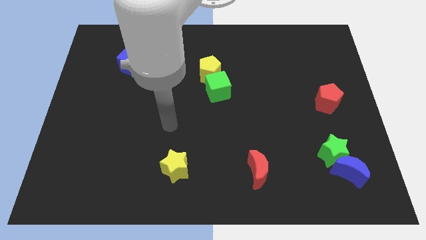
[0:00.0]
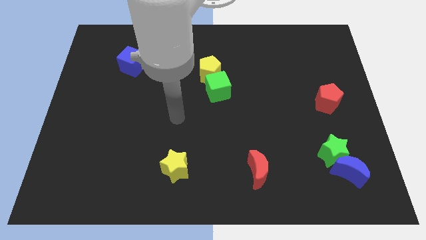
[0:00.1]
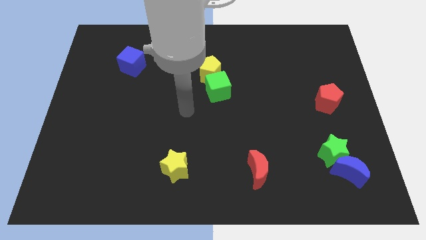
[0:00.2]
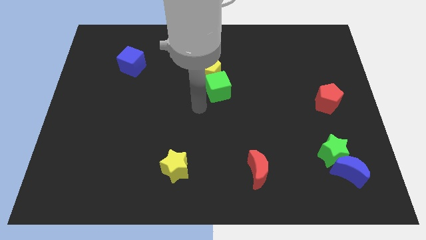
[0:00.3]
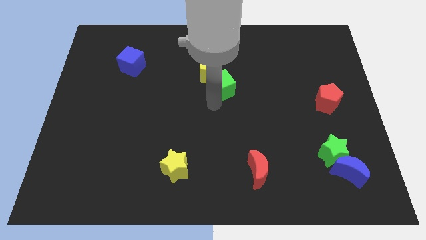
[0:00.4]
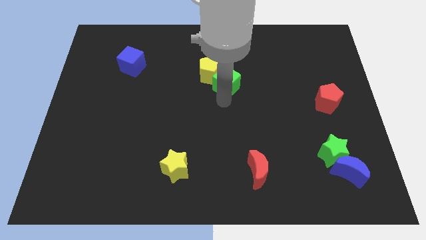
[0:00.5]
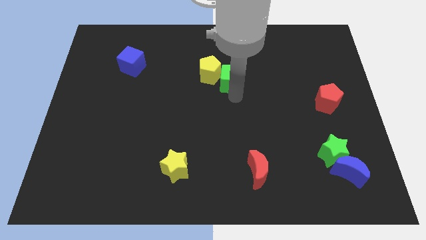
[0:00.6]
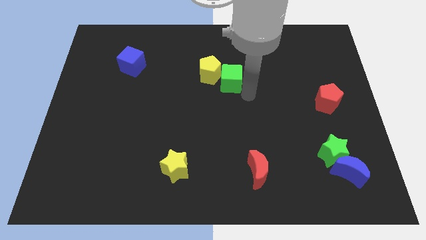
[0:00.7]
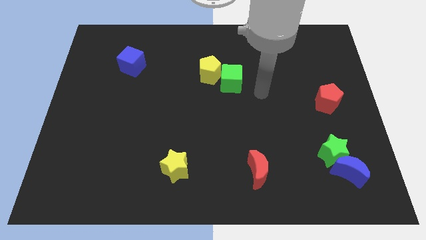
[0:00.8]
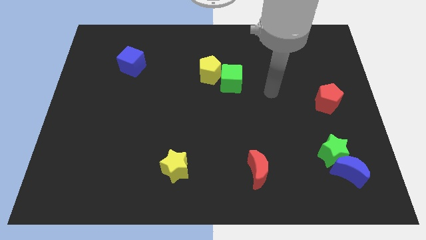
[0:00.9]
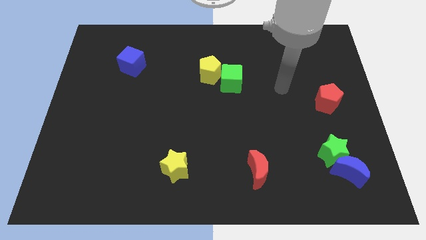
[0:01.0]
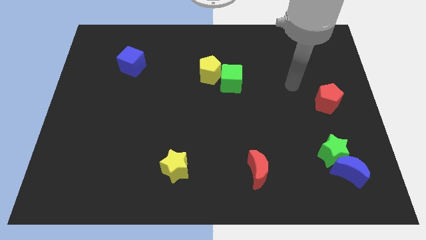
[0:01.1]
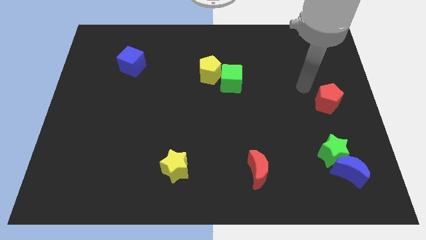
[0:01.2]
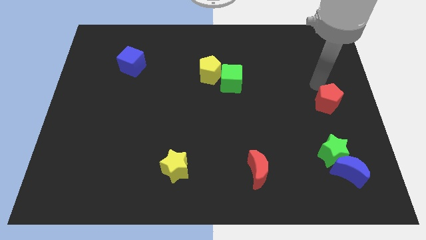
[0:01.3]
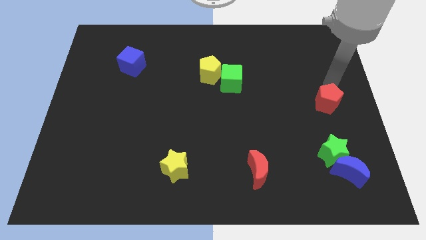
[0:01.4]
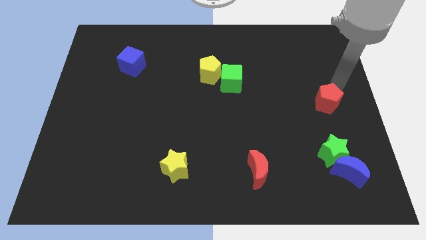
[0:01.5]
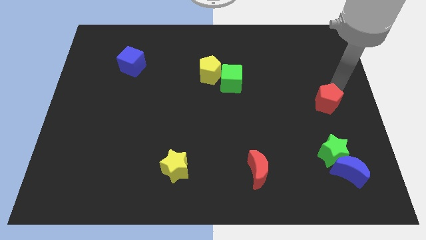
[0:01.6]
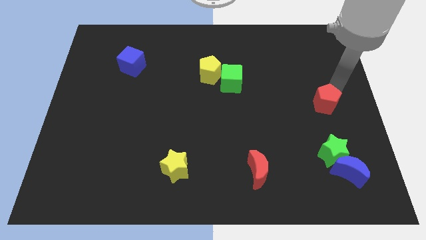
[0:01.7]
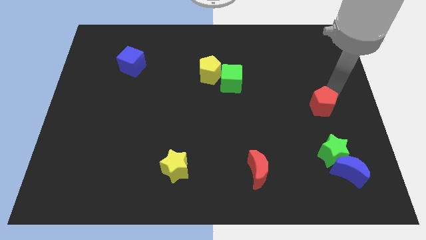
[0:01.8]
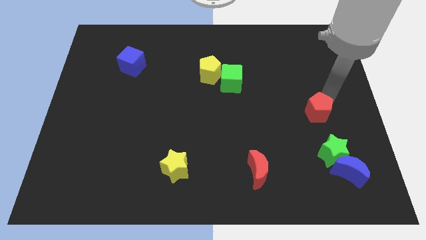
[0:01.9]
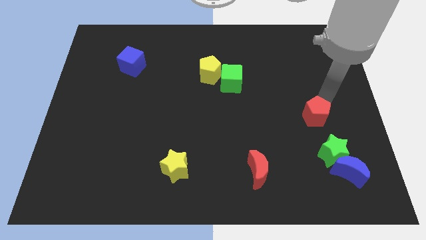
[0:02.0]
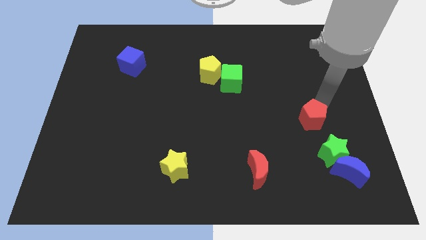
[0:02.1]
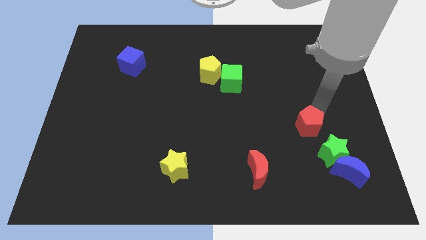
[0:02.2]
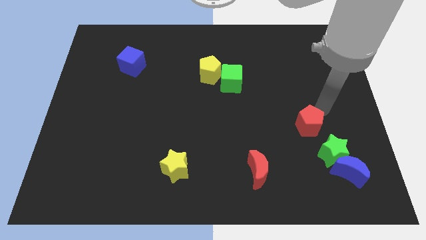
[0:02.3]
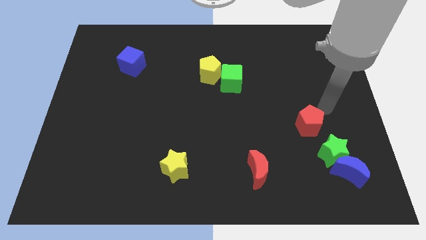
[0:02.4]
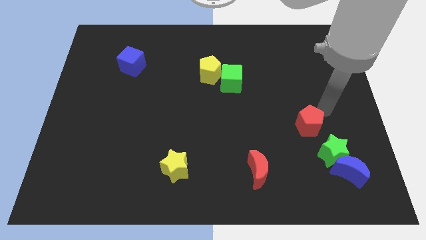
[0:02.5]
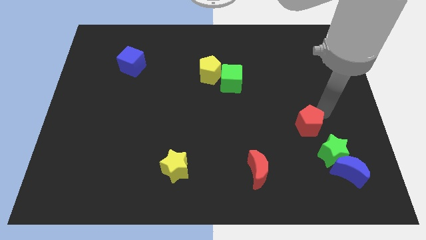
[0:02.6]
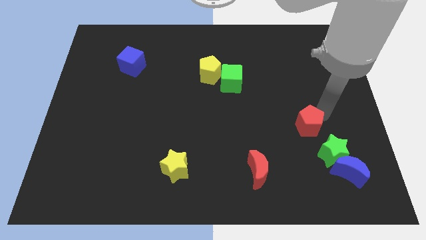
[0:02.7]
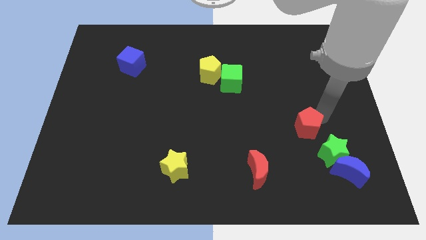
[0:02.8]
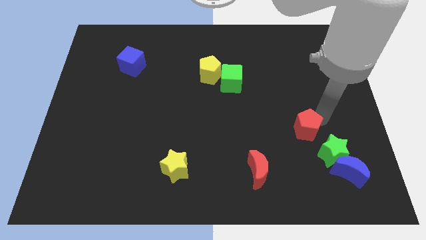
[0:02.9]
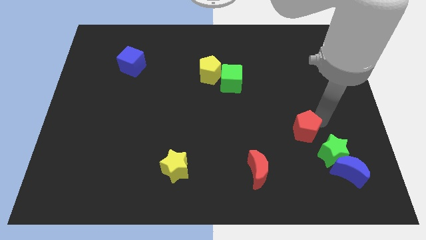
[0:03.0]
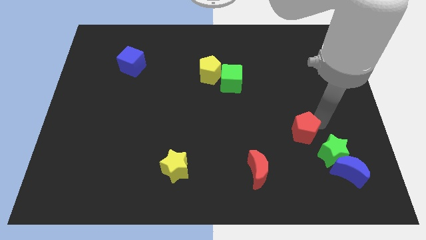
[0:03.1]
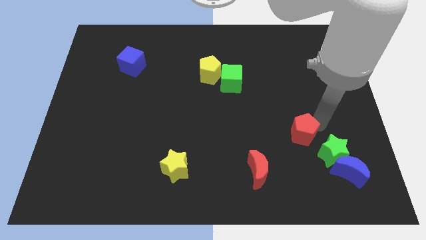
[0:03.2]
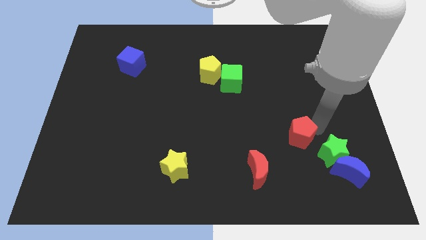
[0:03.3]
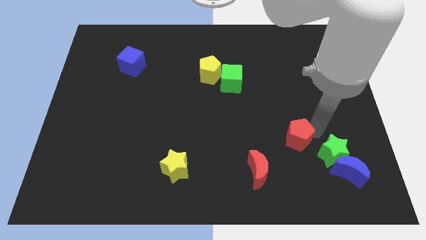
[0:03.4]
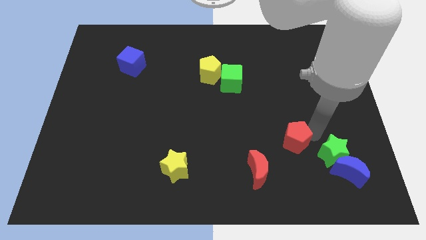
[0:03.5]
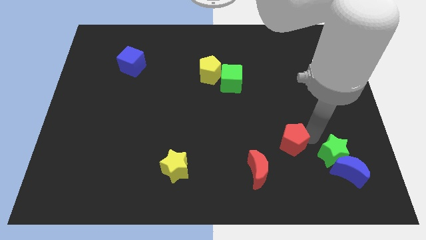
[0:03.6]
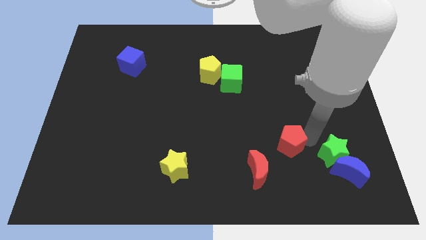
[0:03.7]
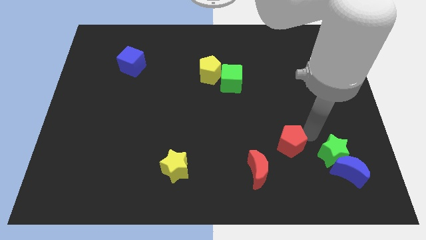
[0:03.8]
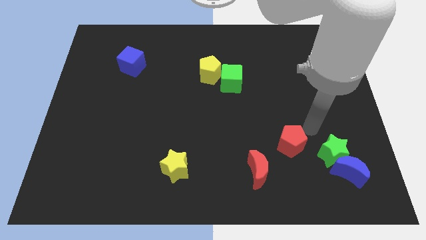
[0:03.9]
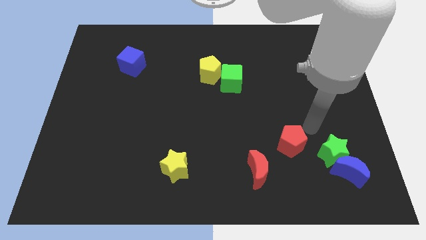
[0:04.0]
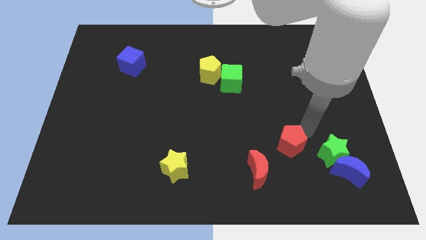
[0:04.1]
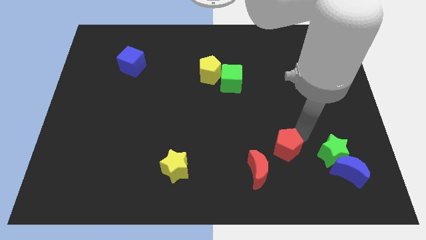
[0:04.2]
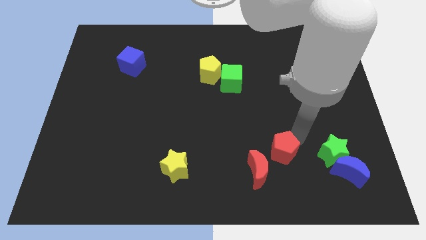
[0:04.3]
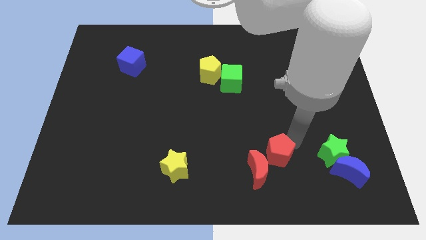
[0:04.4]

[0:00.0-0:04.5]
push the red pentagon towards the red moon

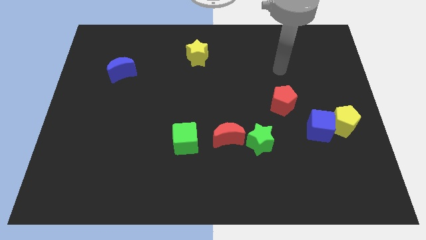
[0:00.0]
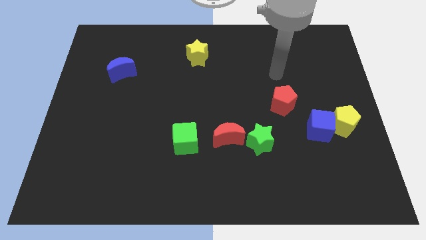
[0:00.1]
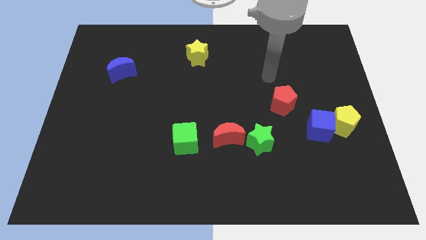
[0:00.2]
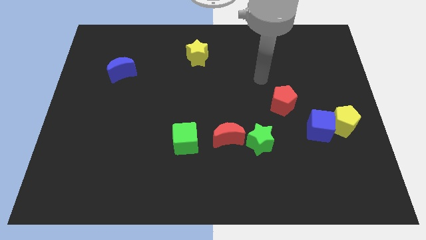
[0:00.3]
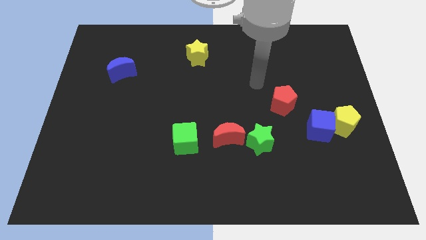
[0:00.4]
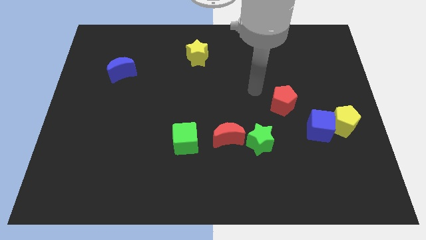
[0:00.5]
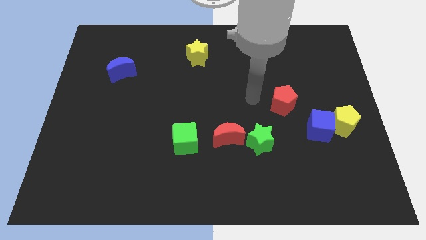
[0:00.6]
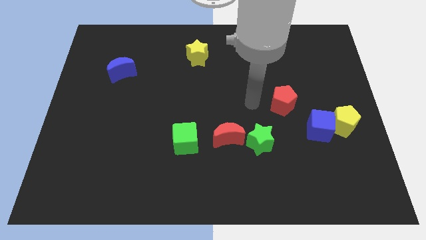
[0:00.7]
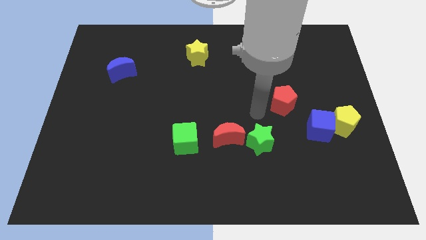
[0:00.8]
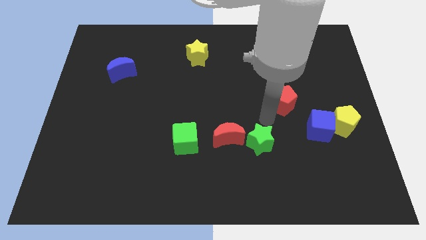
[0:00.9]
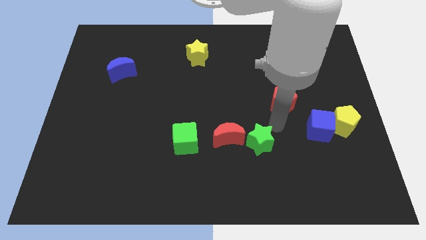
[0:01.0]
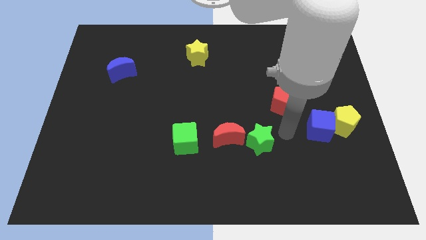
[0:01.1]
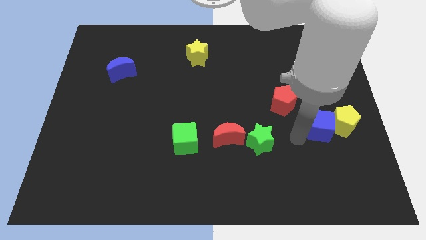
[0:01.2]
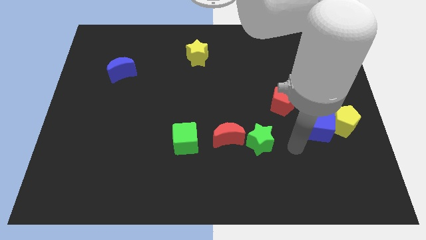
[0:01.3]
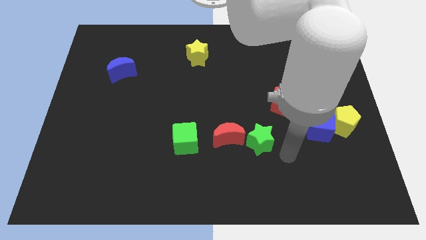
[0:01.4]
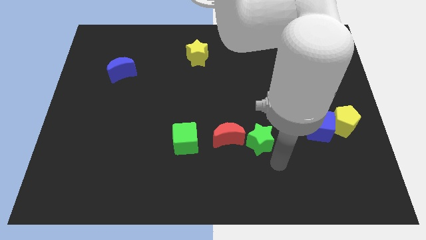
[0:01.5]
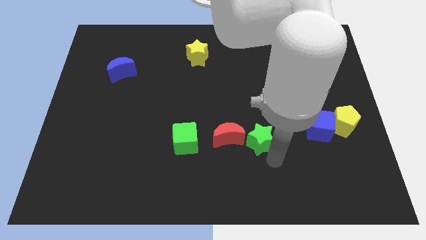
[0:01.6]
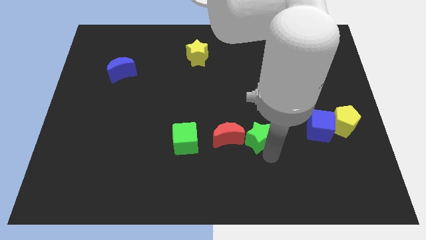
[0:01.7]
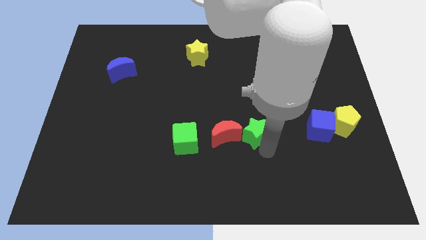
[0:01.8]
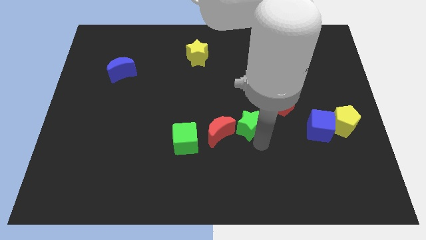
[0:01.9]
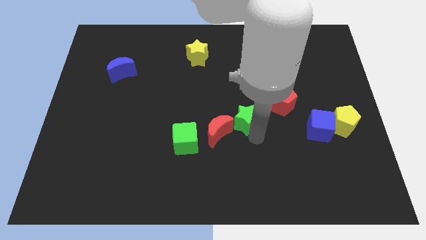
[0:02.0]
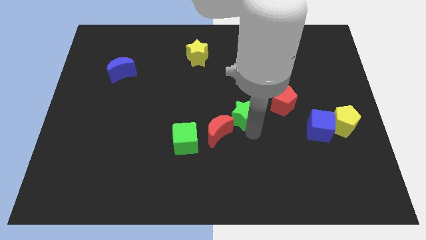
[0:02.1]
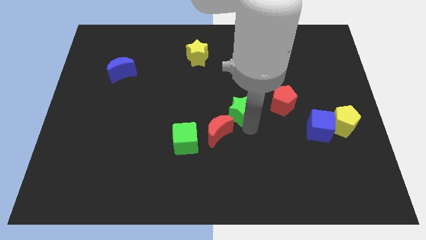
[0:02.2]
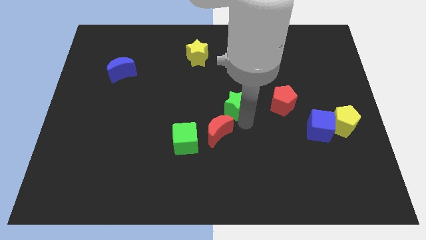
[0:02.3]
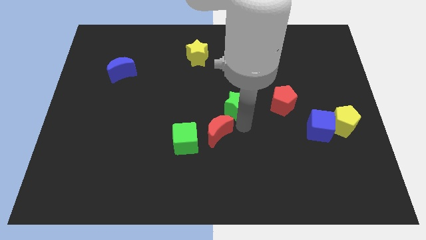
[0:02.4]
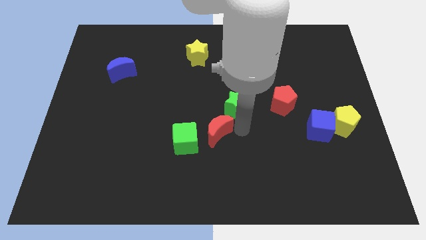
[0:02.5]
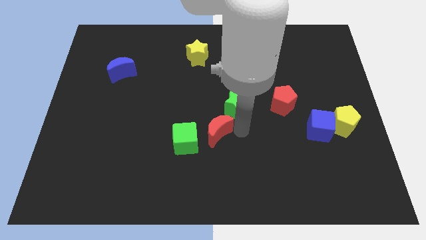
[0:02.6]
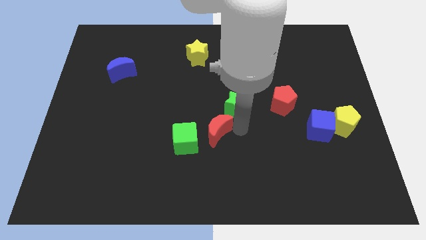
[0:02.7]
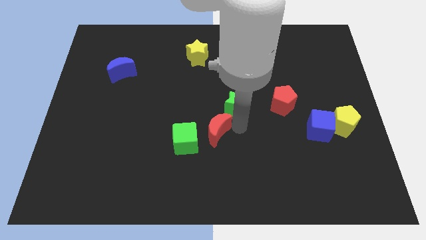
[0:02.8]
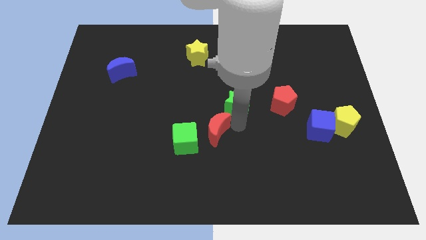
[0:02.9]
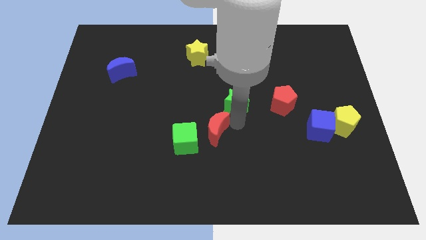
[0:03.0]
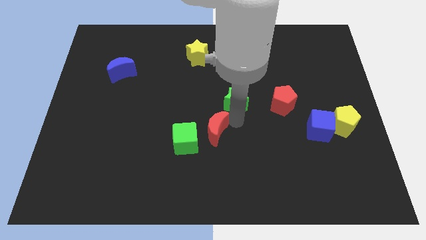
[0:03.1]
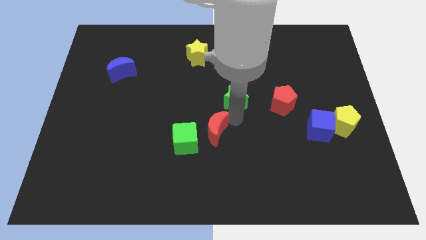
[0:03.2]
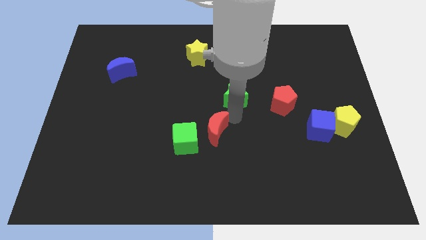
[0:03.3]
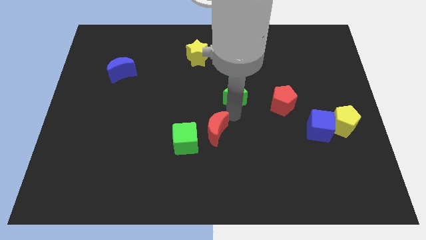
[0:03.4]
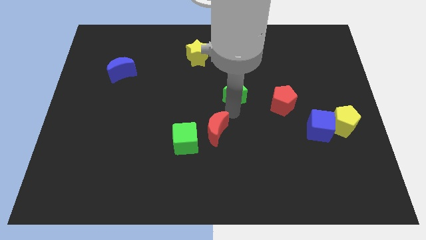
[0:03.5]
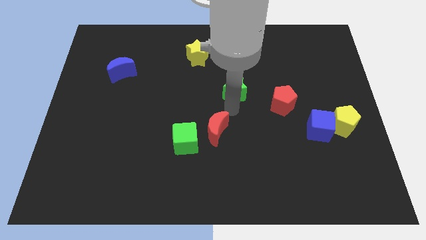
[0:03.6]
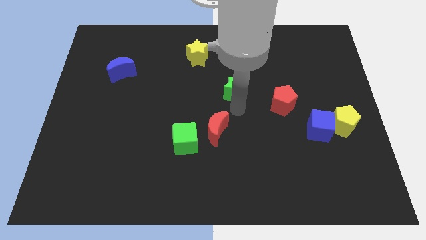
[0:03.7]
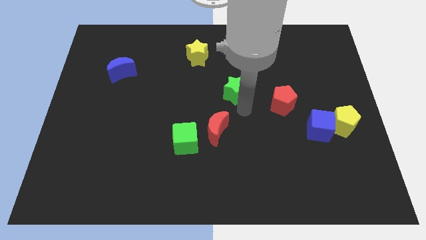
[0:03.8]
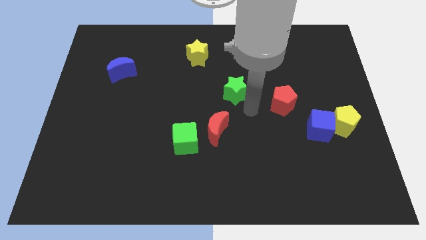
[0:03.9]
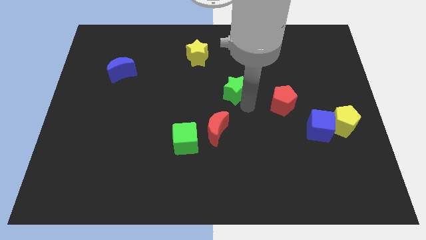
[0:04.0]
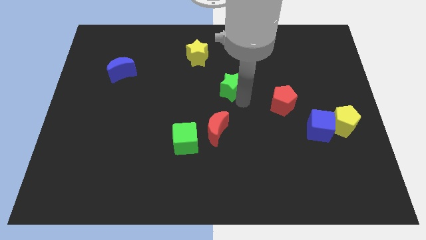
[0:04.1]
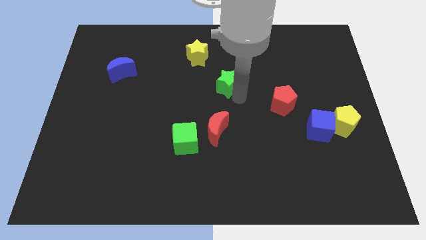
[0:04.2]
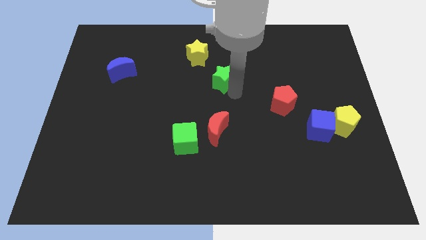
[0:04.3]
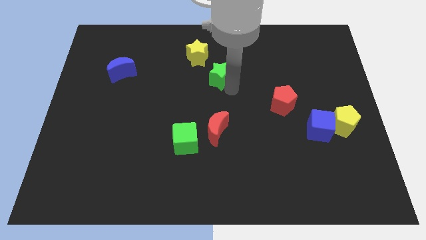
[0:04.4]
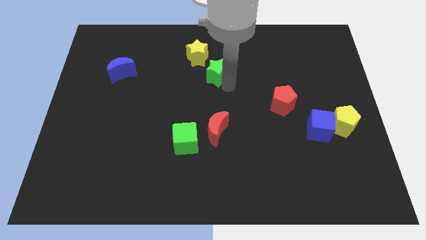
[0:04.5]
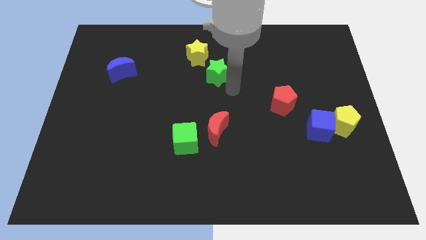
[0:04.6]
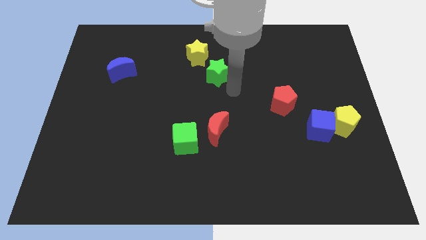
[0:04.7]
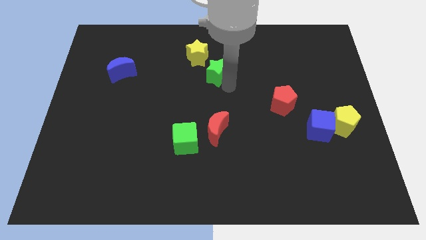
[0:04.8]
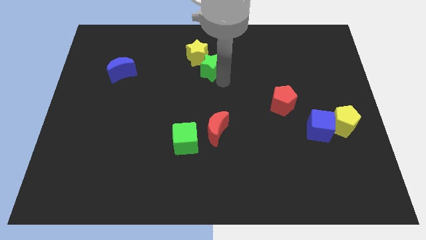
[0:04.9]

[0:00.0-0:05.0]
move the green star next to the yellow star
